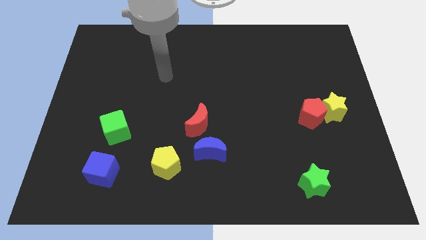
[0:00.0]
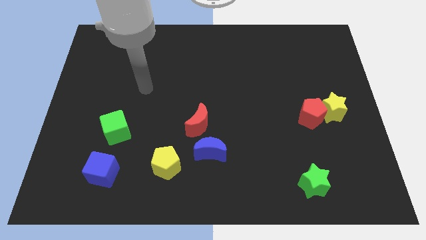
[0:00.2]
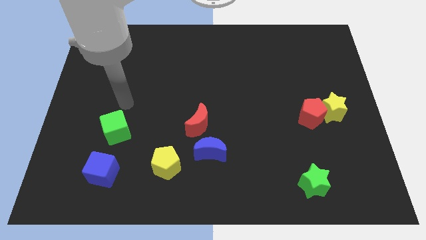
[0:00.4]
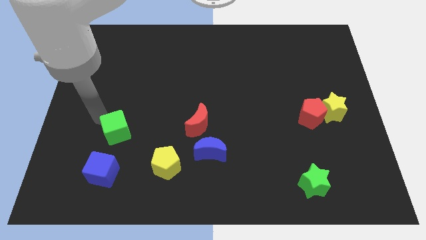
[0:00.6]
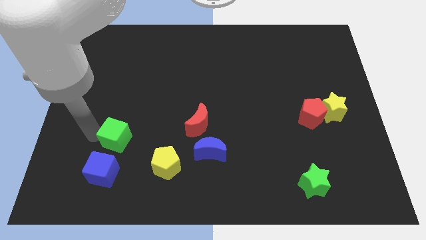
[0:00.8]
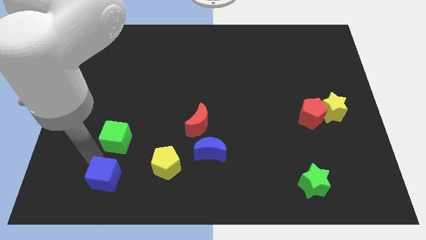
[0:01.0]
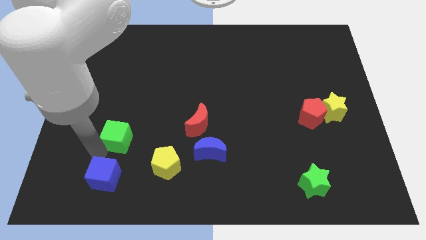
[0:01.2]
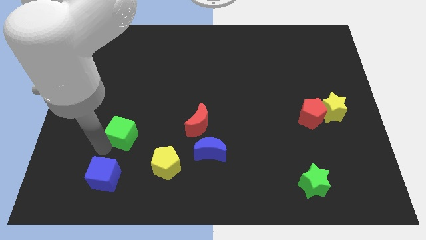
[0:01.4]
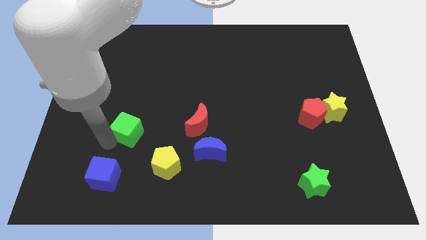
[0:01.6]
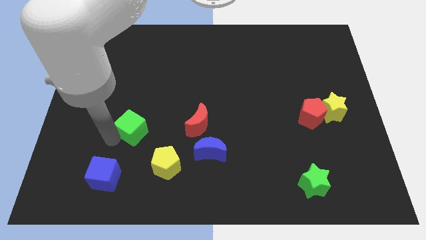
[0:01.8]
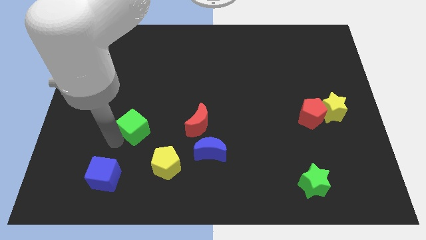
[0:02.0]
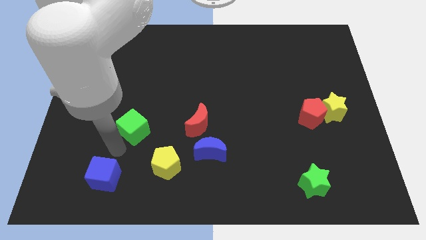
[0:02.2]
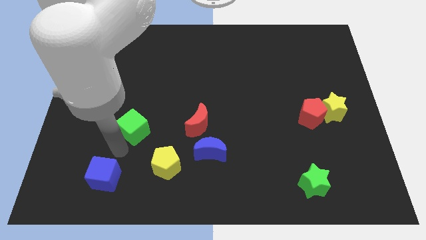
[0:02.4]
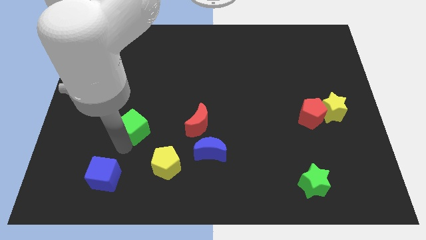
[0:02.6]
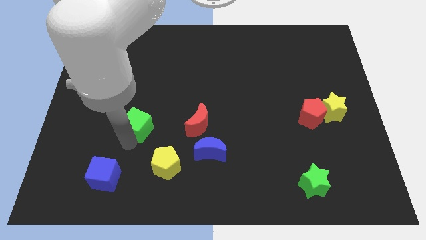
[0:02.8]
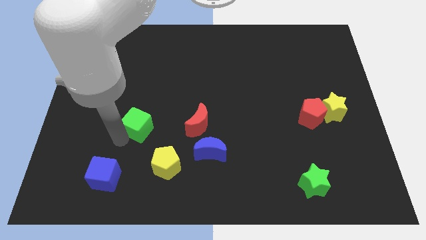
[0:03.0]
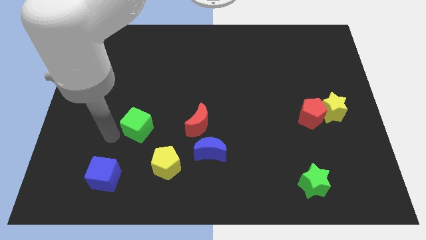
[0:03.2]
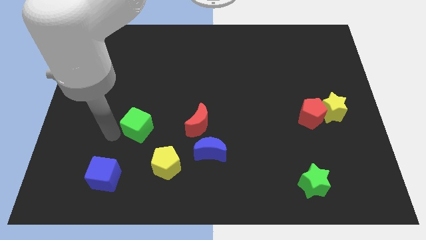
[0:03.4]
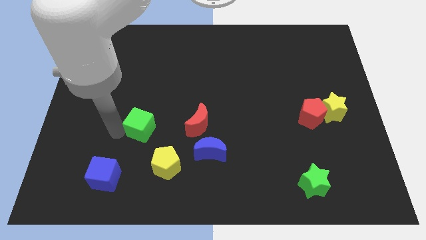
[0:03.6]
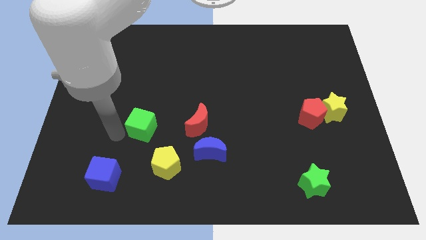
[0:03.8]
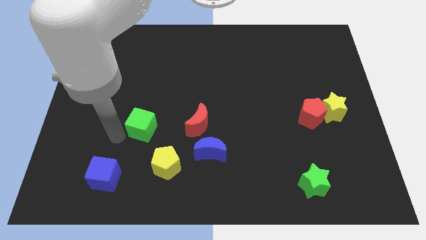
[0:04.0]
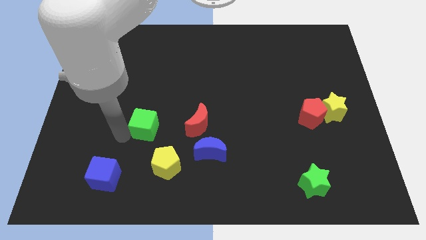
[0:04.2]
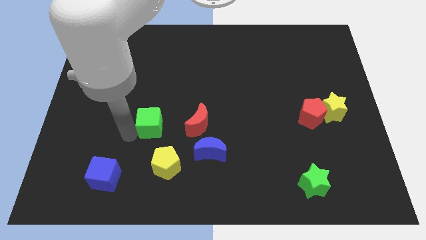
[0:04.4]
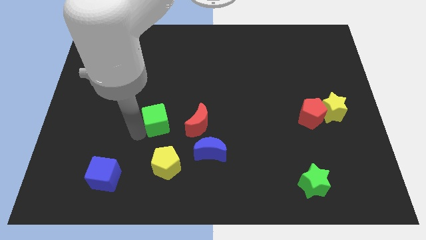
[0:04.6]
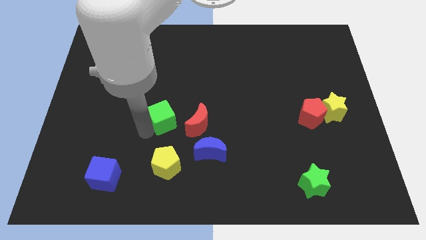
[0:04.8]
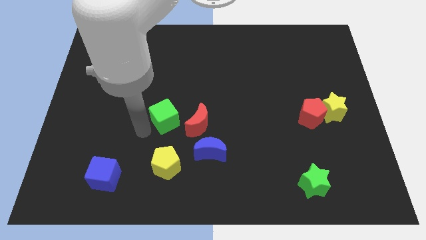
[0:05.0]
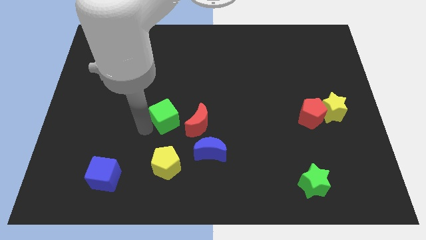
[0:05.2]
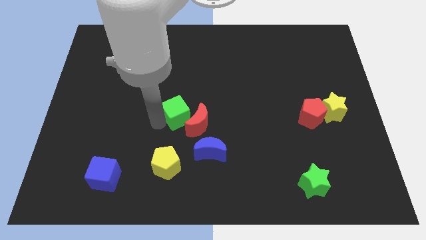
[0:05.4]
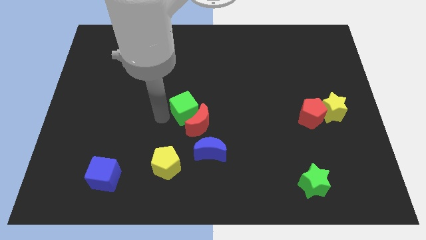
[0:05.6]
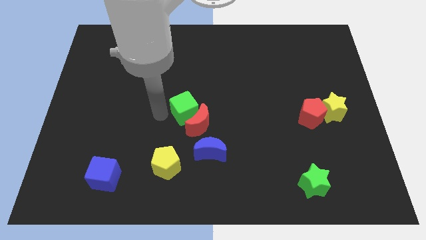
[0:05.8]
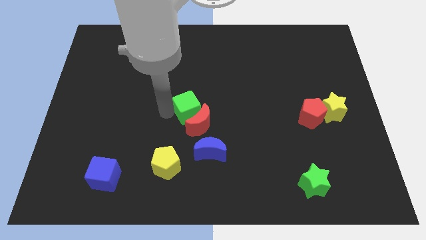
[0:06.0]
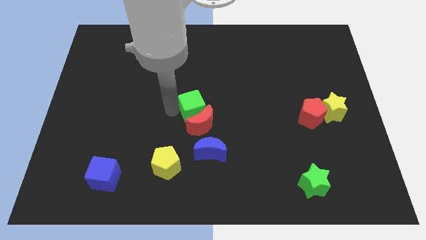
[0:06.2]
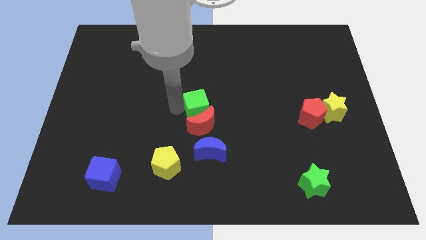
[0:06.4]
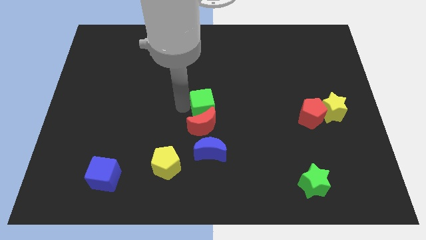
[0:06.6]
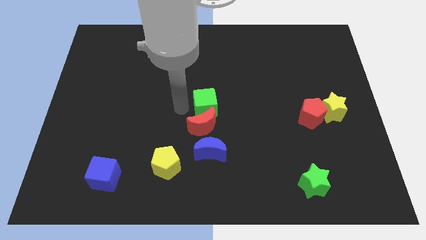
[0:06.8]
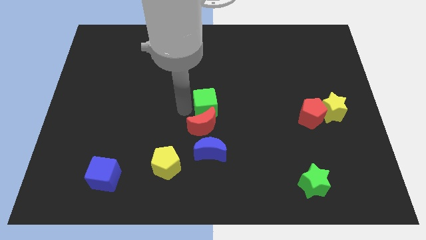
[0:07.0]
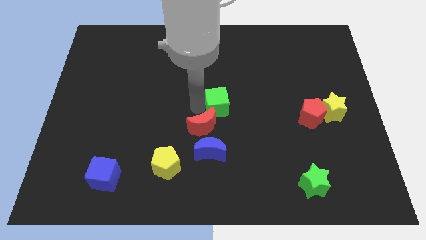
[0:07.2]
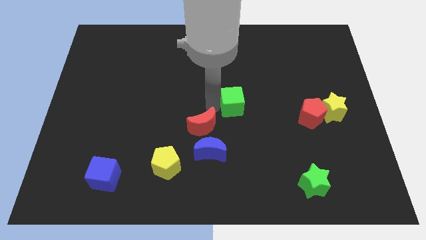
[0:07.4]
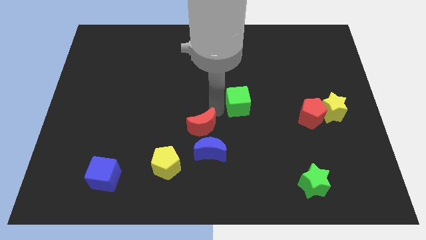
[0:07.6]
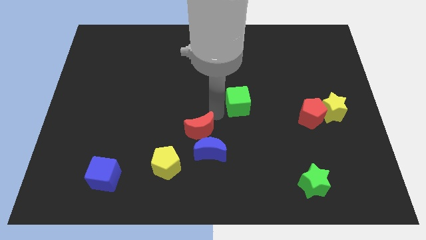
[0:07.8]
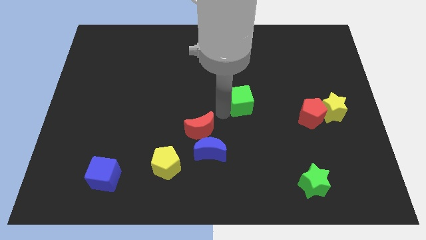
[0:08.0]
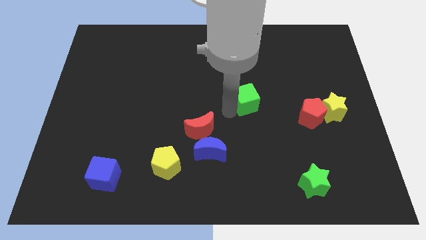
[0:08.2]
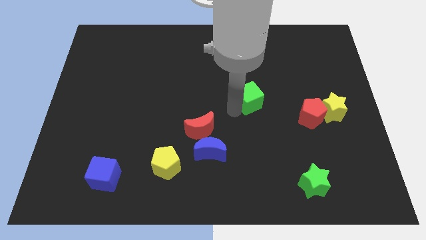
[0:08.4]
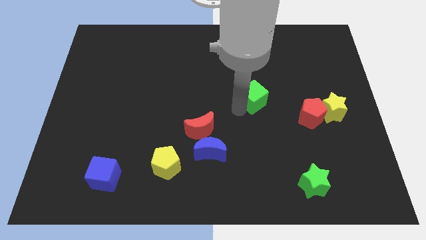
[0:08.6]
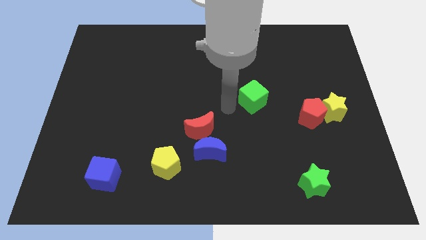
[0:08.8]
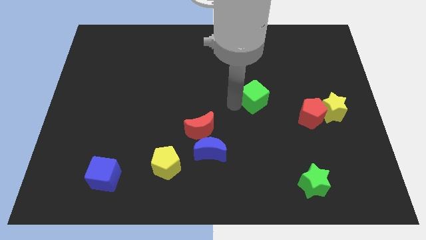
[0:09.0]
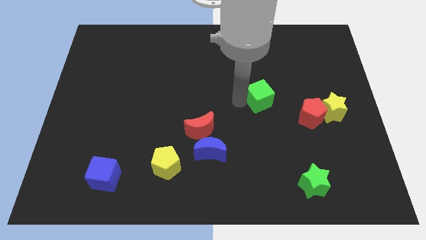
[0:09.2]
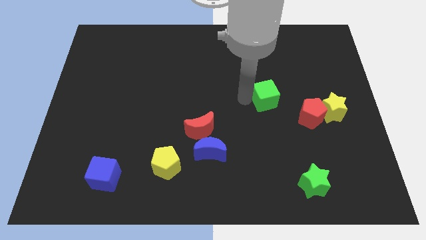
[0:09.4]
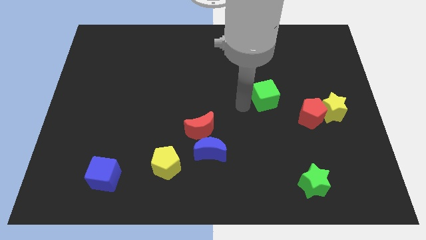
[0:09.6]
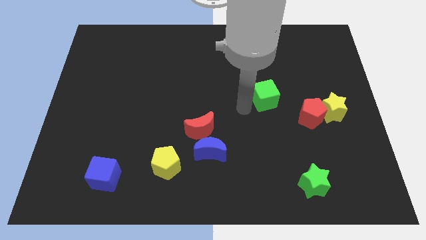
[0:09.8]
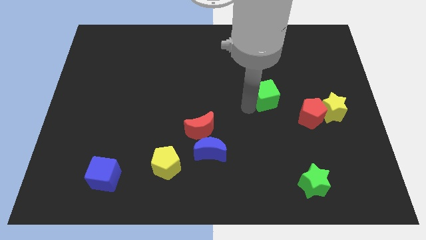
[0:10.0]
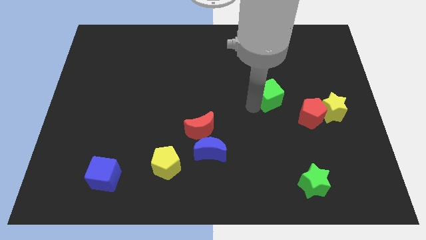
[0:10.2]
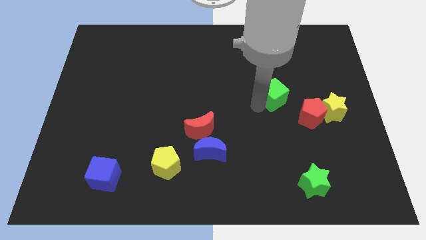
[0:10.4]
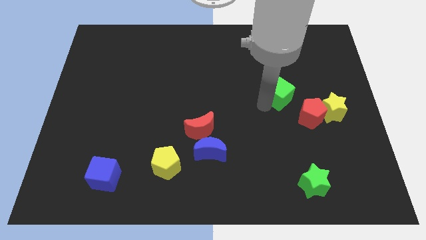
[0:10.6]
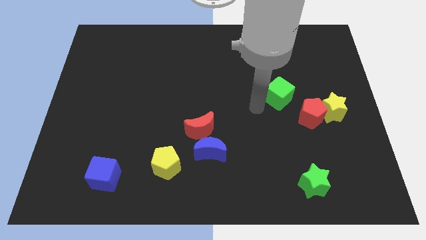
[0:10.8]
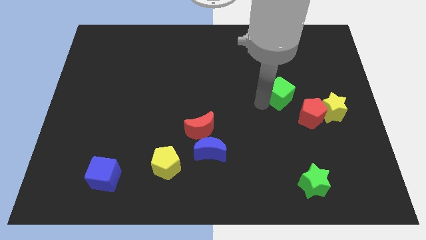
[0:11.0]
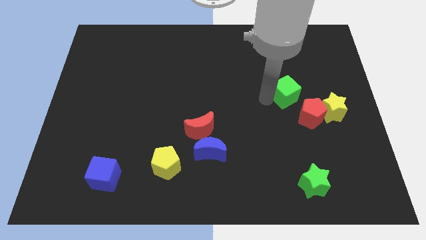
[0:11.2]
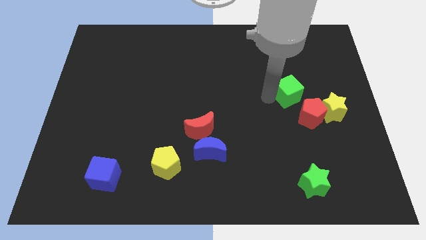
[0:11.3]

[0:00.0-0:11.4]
move the green cube to the top side of the red pentagon
